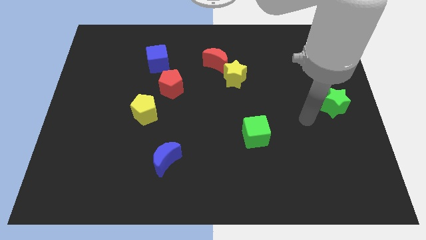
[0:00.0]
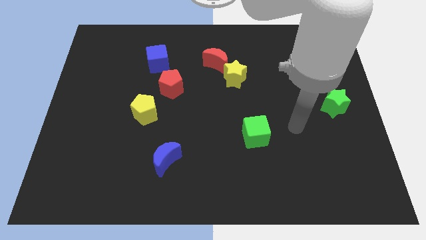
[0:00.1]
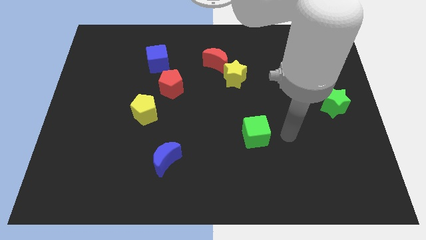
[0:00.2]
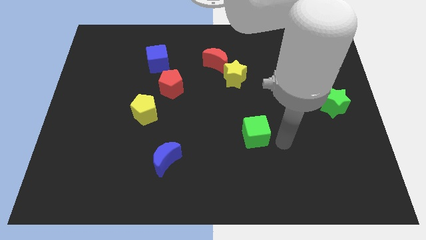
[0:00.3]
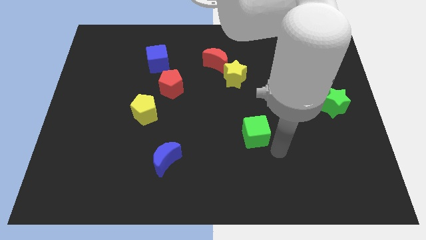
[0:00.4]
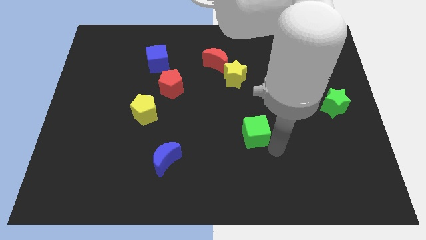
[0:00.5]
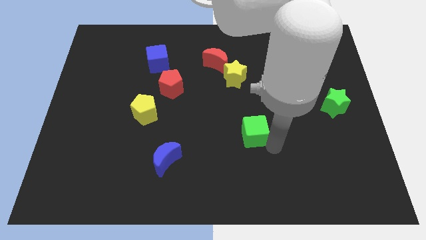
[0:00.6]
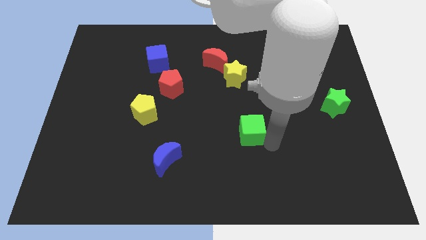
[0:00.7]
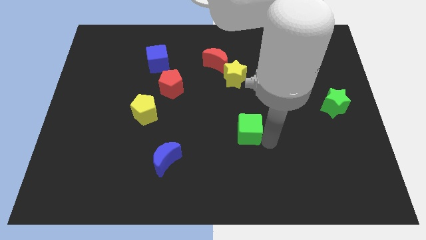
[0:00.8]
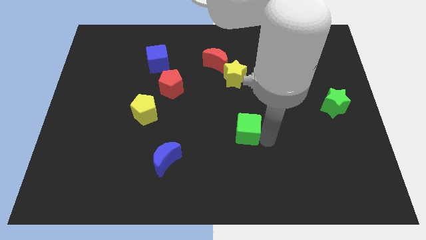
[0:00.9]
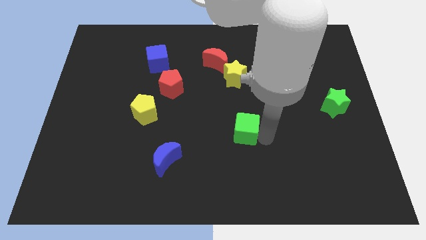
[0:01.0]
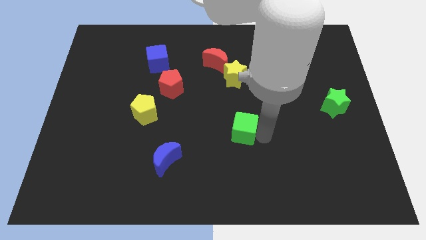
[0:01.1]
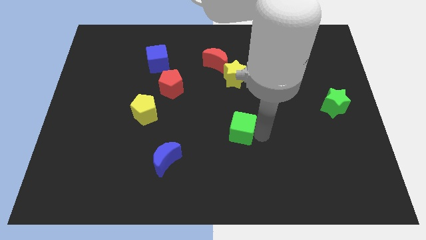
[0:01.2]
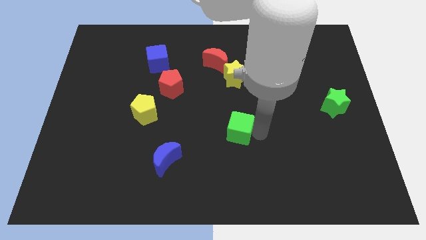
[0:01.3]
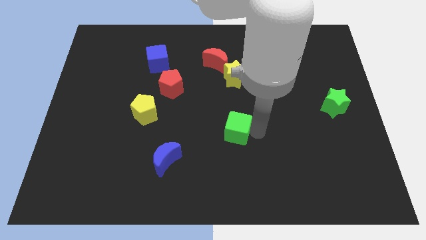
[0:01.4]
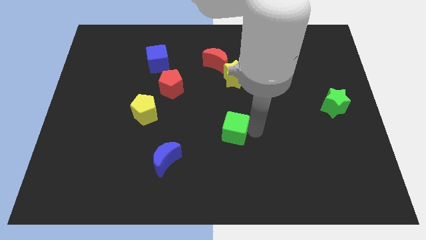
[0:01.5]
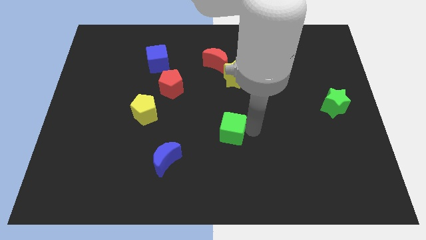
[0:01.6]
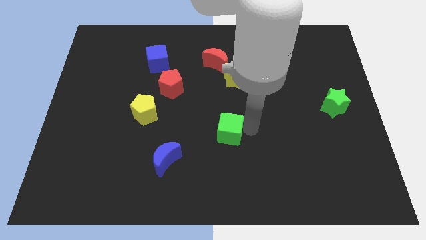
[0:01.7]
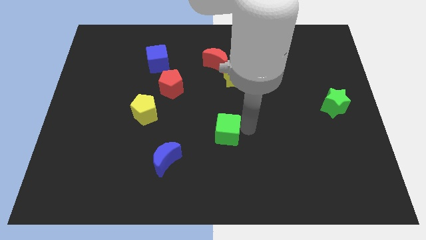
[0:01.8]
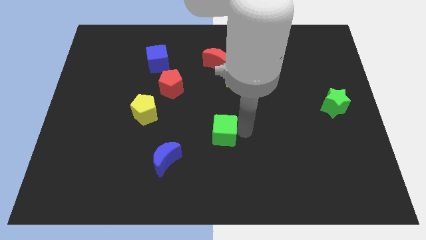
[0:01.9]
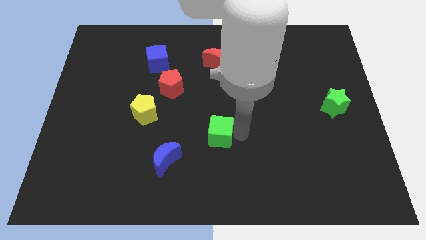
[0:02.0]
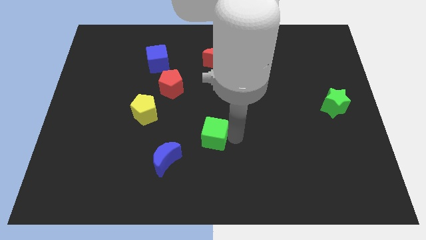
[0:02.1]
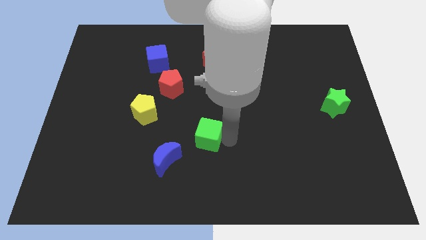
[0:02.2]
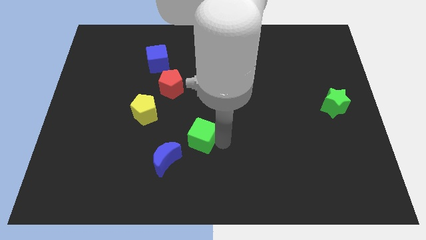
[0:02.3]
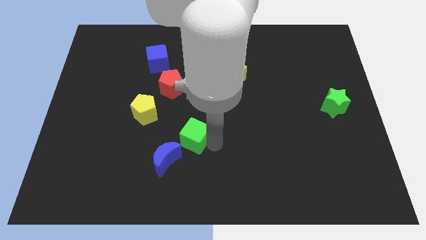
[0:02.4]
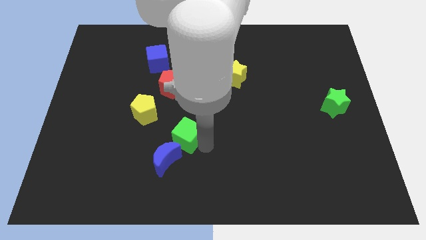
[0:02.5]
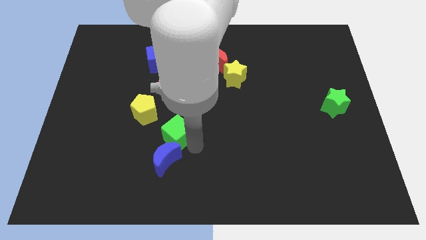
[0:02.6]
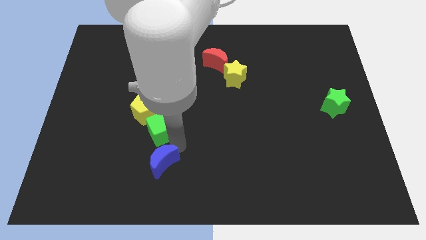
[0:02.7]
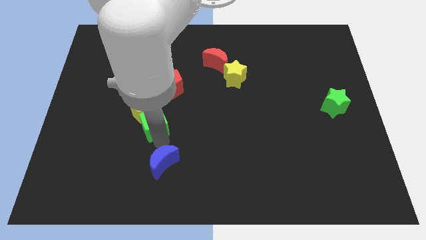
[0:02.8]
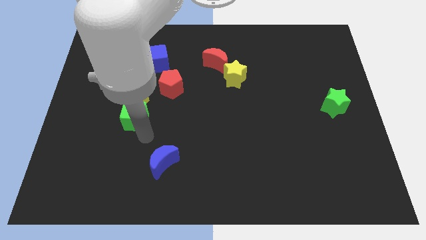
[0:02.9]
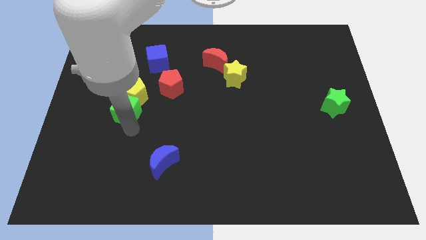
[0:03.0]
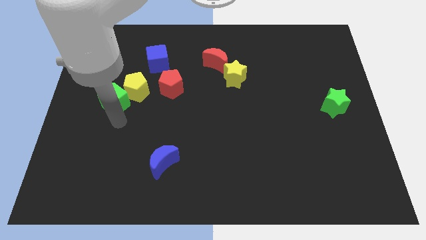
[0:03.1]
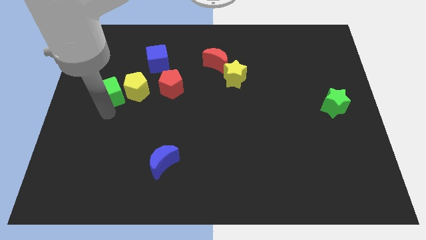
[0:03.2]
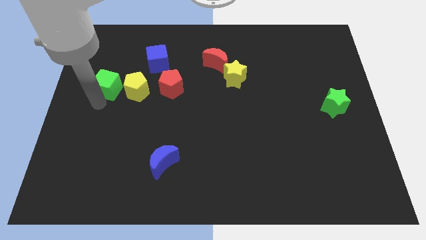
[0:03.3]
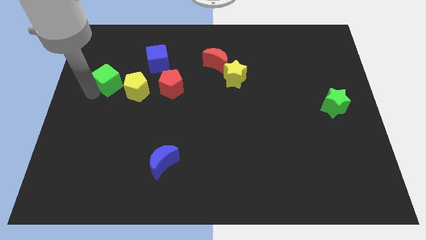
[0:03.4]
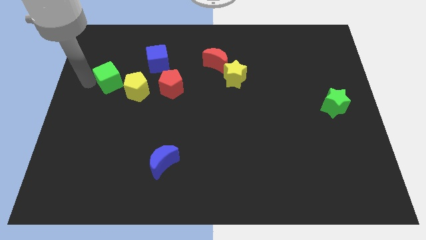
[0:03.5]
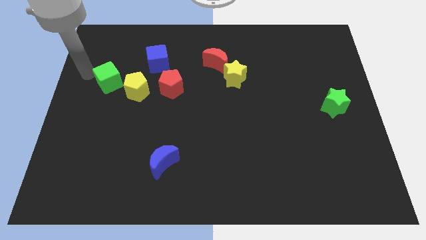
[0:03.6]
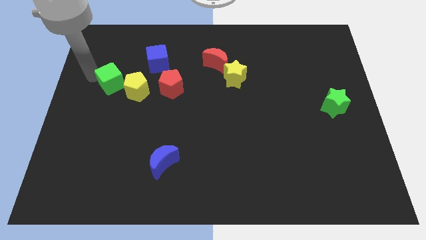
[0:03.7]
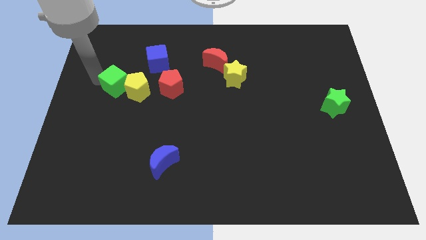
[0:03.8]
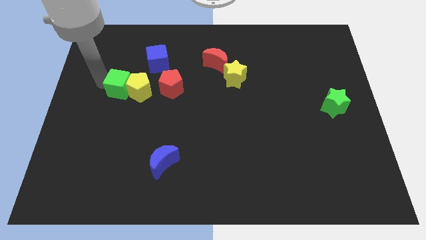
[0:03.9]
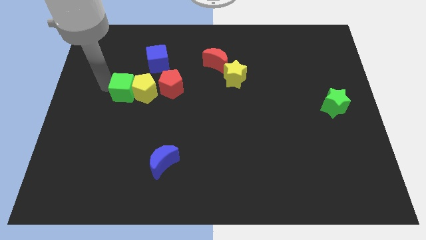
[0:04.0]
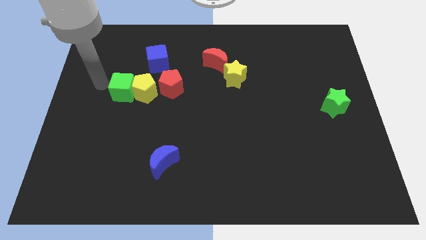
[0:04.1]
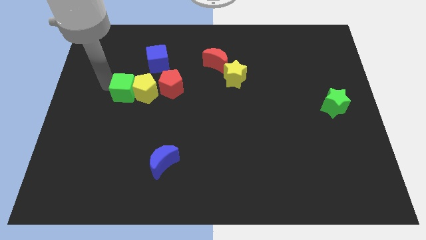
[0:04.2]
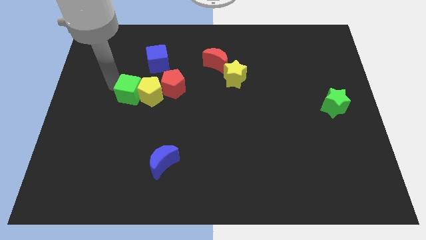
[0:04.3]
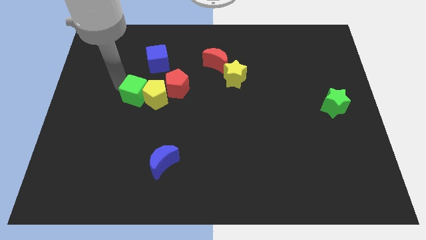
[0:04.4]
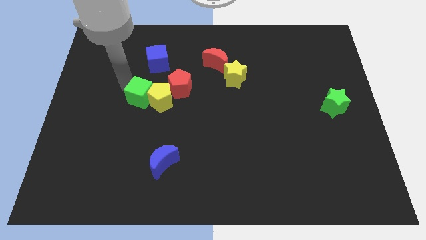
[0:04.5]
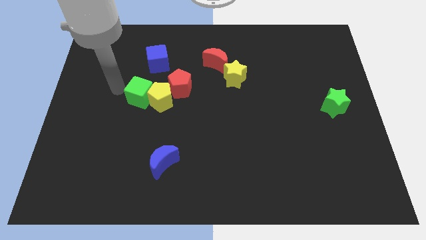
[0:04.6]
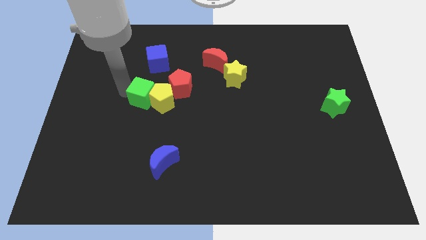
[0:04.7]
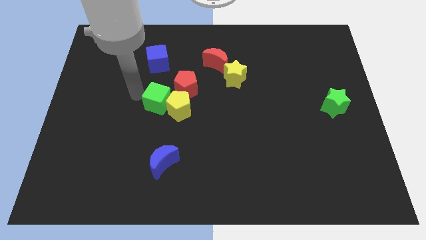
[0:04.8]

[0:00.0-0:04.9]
slide the green cube somewhat diagonally upwards and to the left

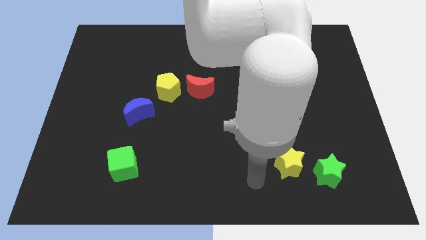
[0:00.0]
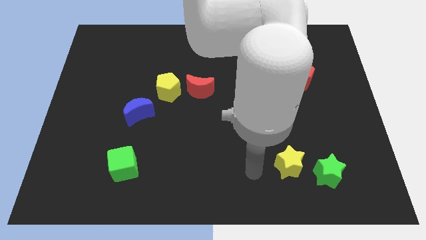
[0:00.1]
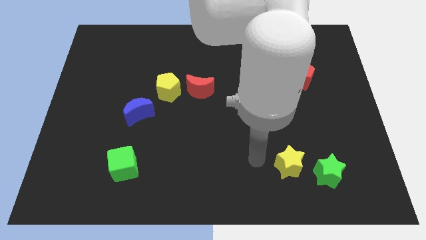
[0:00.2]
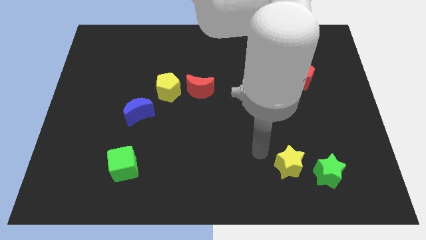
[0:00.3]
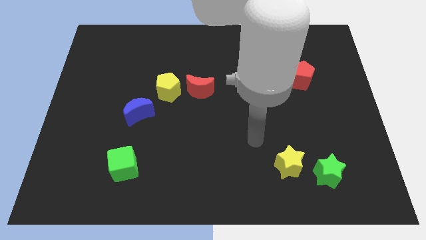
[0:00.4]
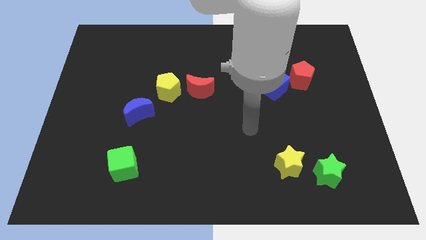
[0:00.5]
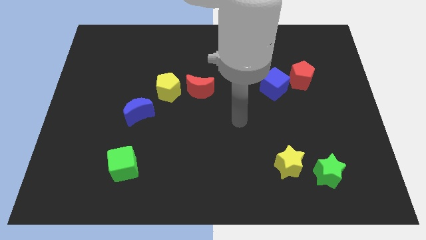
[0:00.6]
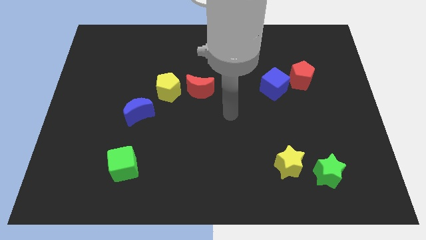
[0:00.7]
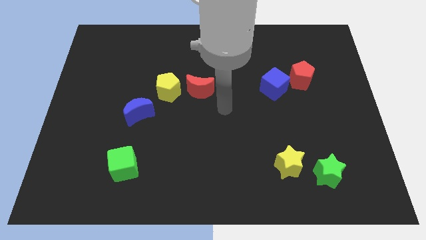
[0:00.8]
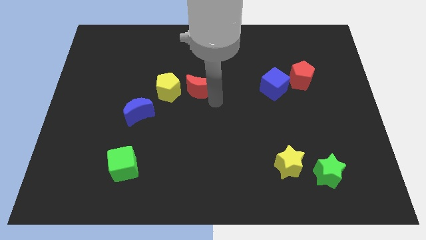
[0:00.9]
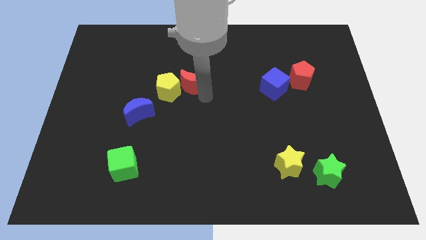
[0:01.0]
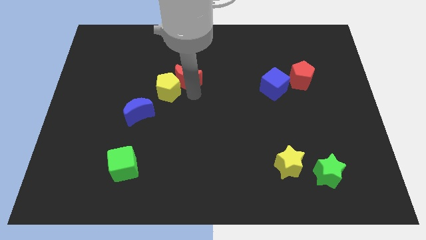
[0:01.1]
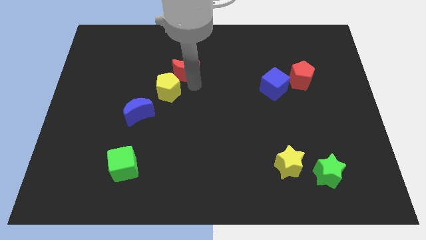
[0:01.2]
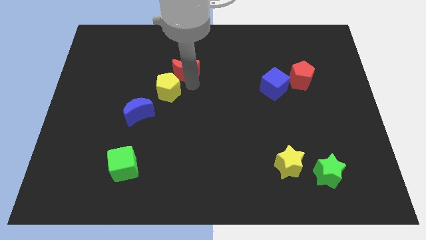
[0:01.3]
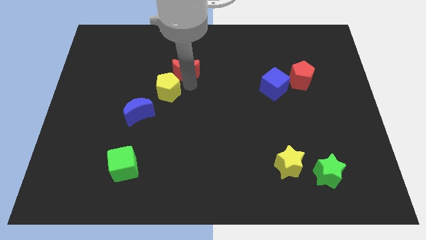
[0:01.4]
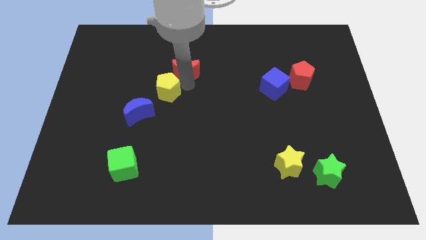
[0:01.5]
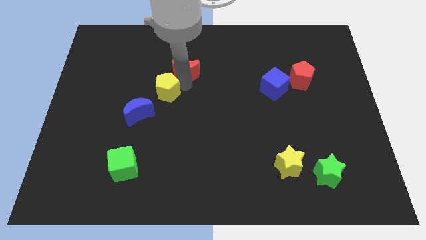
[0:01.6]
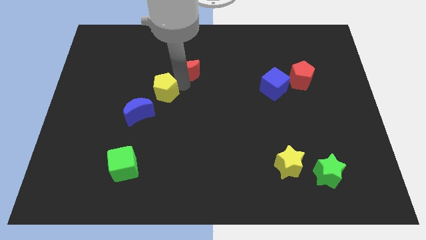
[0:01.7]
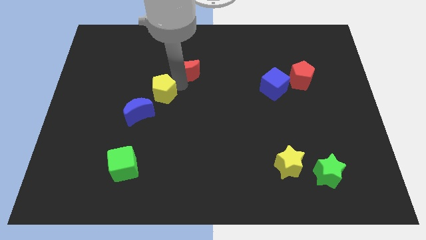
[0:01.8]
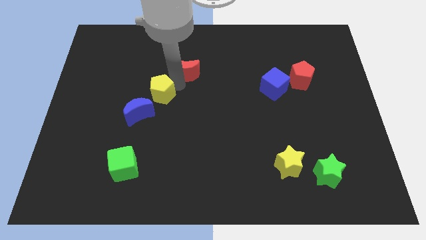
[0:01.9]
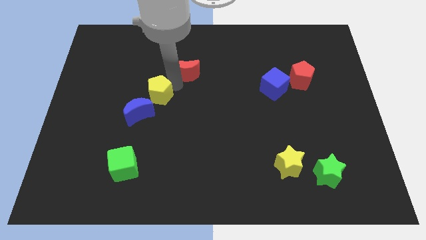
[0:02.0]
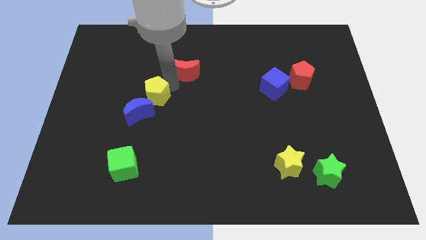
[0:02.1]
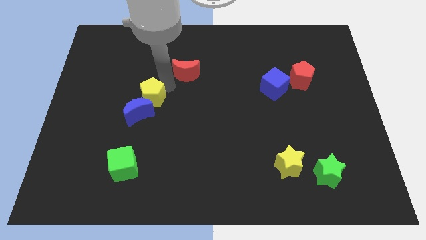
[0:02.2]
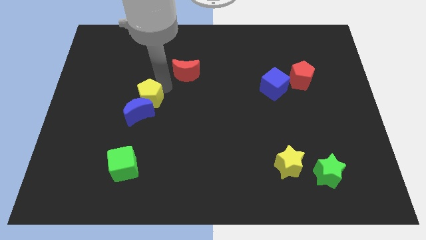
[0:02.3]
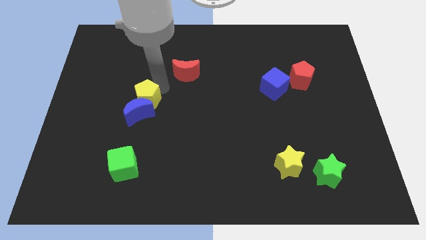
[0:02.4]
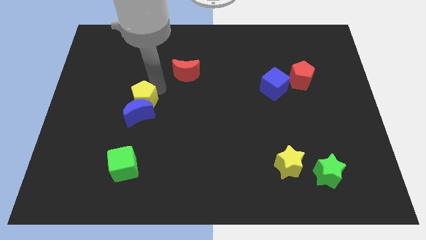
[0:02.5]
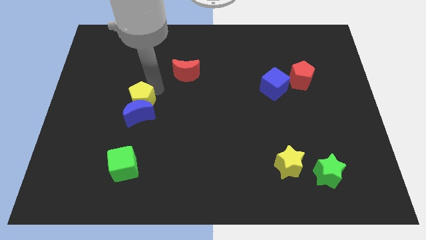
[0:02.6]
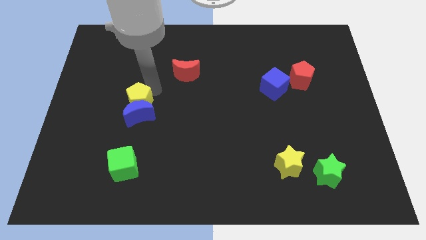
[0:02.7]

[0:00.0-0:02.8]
slightly slide the yellow pentagon down and then left
